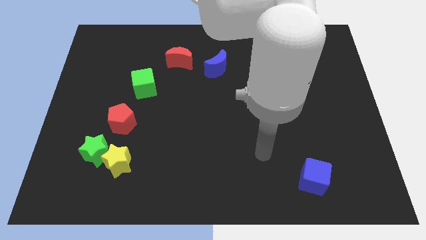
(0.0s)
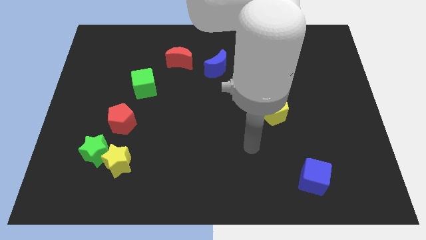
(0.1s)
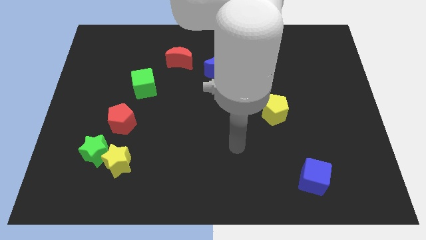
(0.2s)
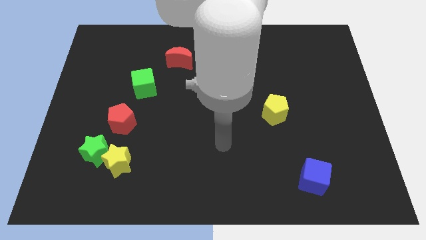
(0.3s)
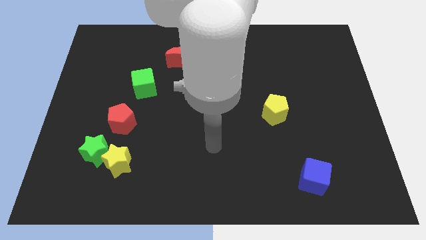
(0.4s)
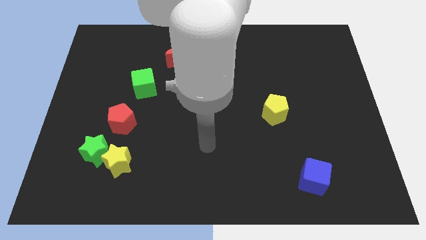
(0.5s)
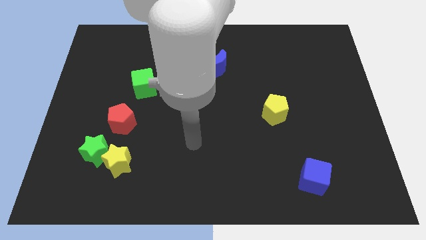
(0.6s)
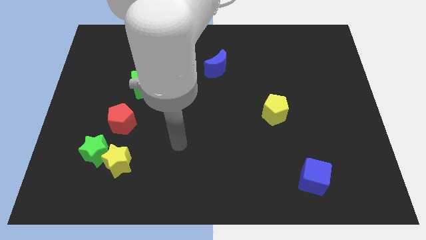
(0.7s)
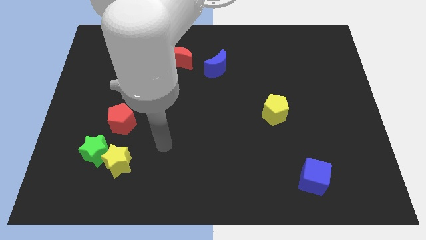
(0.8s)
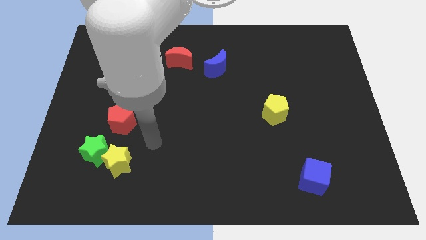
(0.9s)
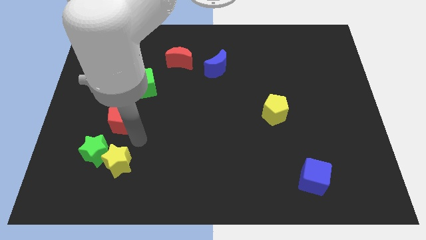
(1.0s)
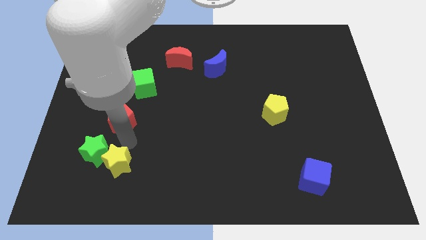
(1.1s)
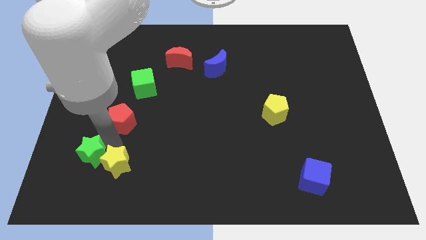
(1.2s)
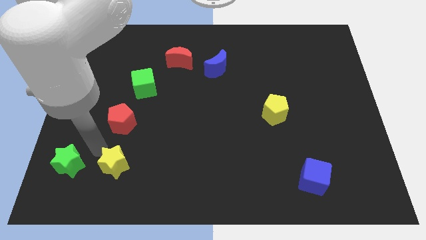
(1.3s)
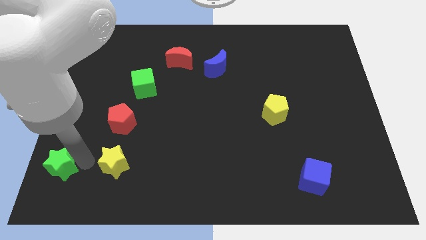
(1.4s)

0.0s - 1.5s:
pull the yellow star apart from the green star

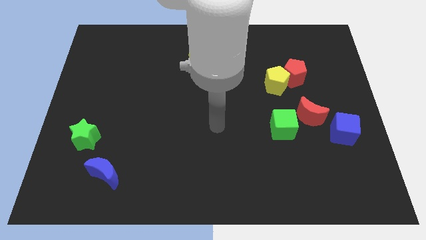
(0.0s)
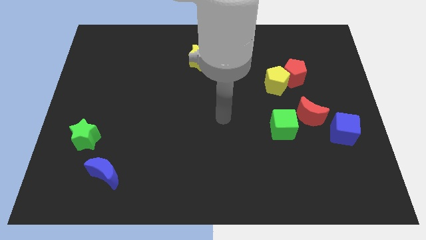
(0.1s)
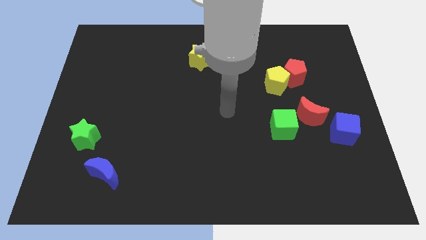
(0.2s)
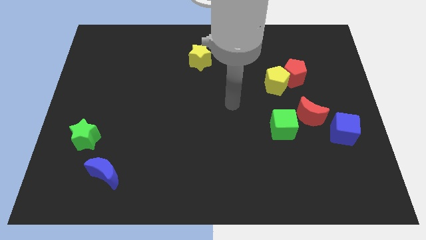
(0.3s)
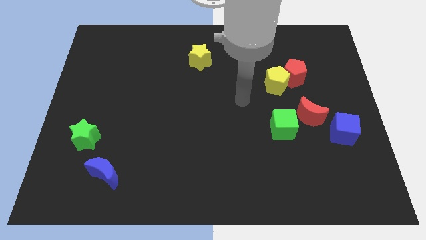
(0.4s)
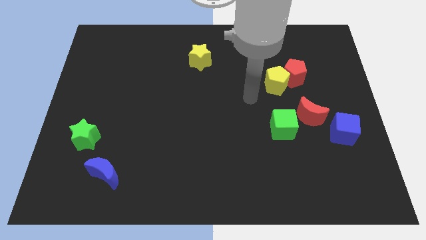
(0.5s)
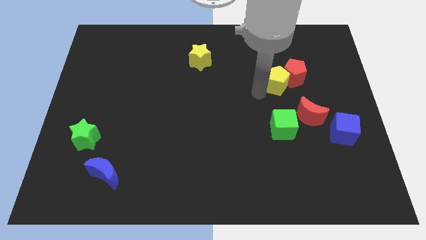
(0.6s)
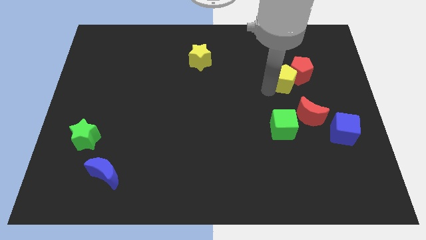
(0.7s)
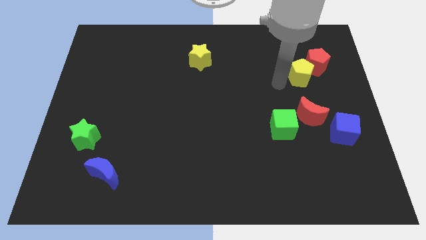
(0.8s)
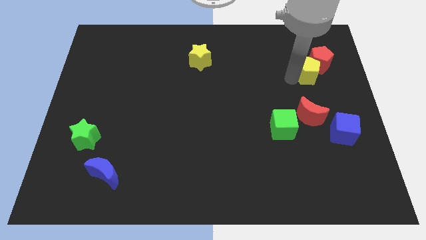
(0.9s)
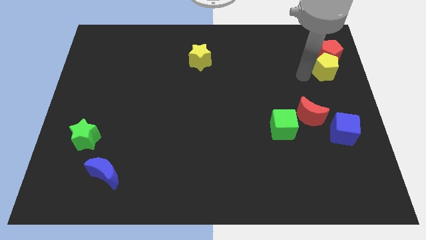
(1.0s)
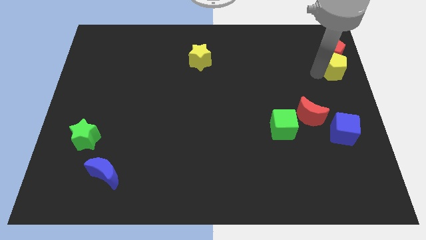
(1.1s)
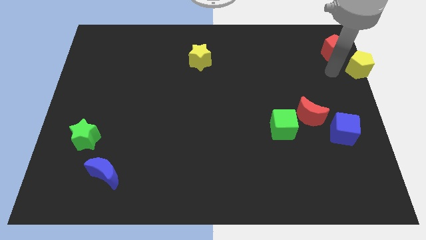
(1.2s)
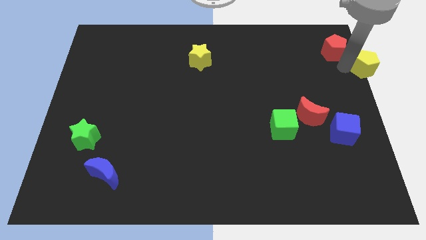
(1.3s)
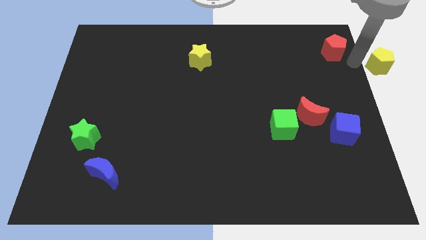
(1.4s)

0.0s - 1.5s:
pull the red pentagon apart from the yellow pentagon

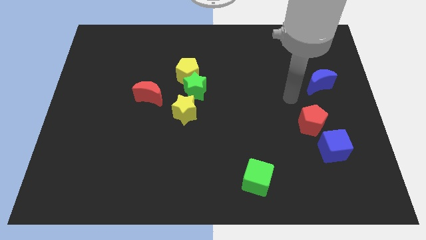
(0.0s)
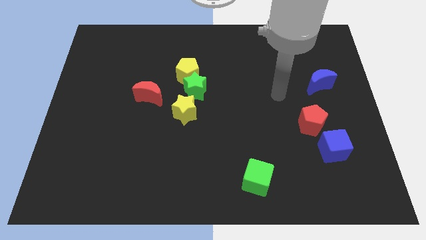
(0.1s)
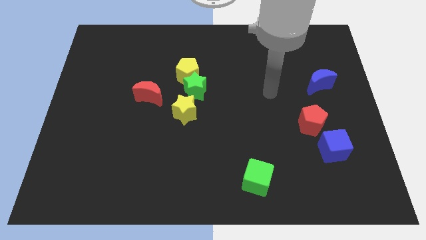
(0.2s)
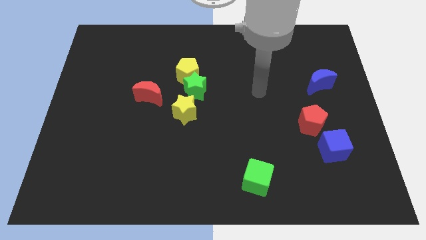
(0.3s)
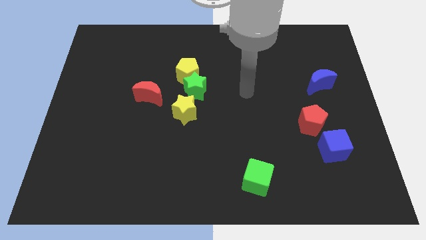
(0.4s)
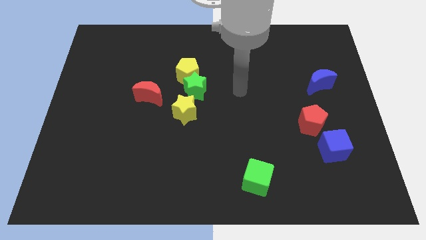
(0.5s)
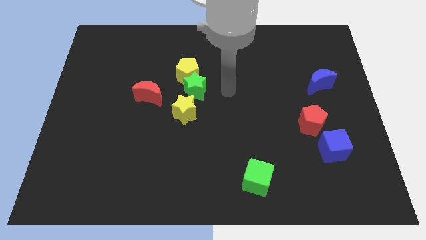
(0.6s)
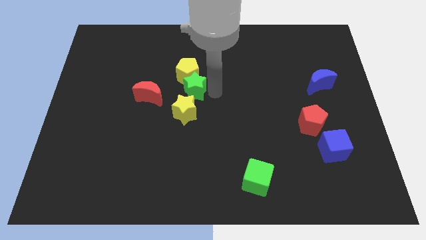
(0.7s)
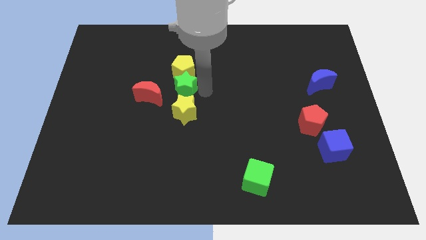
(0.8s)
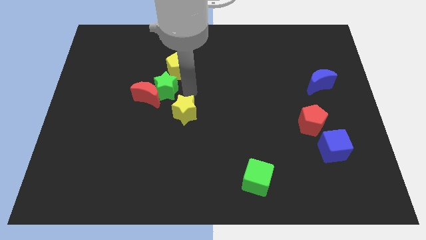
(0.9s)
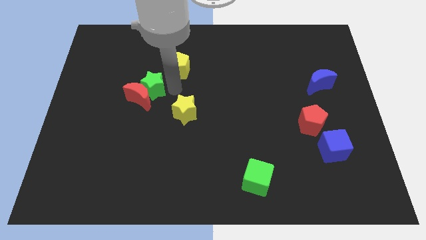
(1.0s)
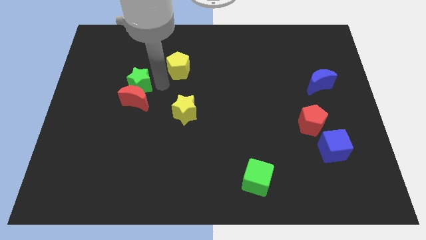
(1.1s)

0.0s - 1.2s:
move the yellow pentagon away from the green star

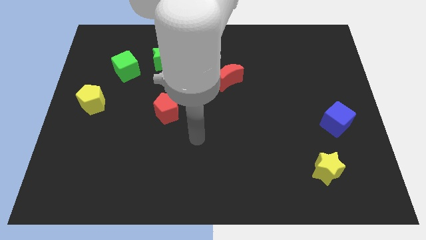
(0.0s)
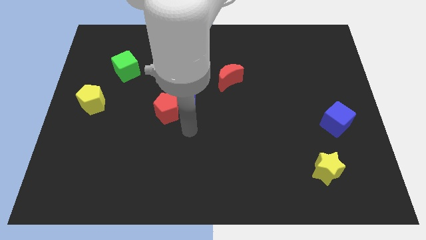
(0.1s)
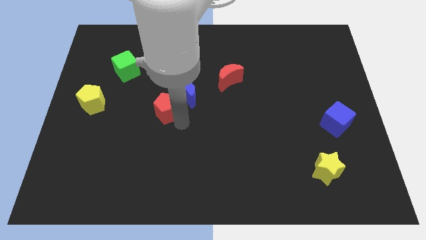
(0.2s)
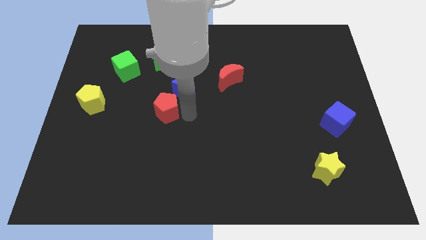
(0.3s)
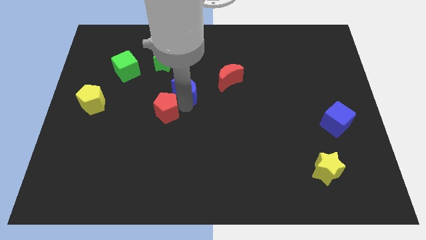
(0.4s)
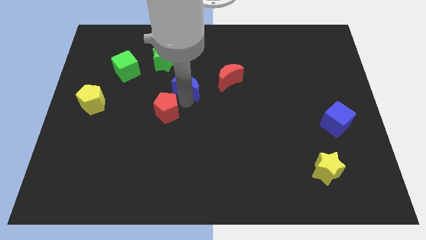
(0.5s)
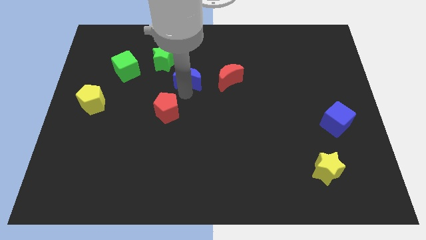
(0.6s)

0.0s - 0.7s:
pull the red pentagon apart from the blue moon

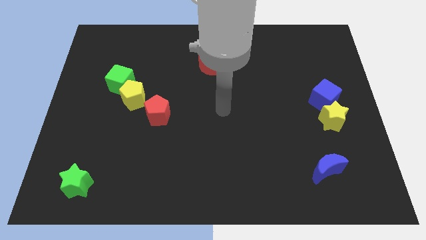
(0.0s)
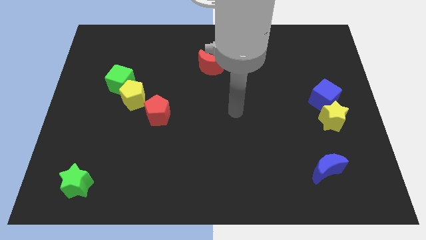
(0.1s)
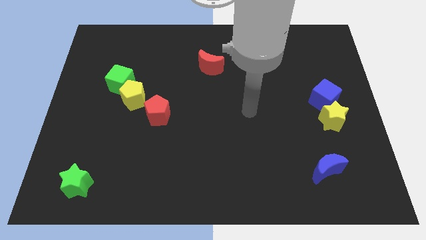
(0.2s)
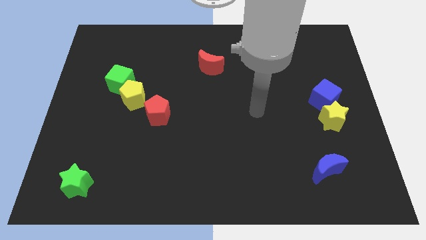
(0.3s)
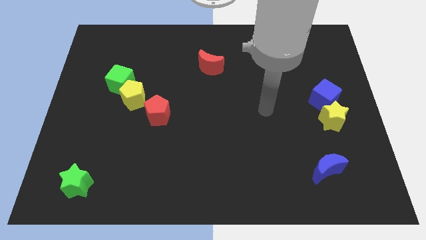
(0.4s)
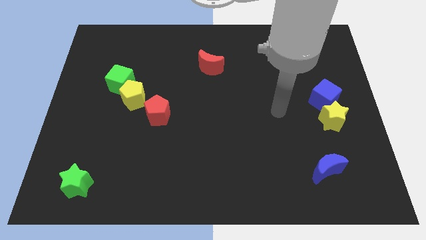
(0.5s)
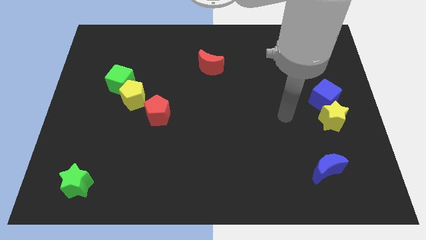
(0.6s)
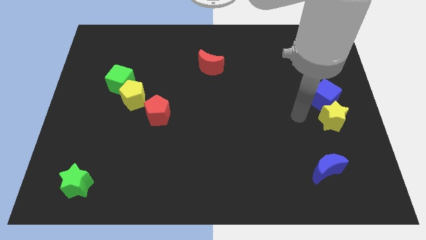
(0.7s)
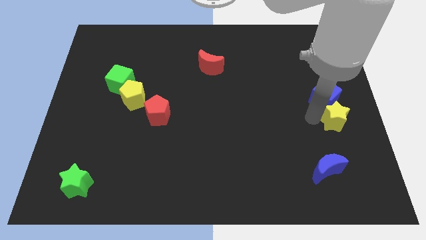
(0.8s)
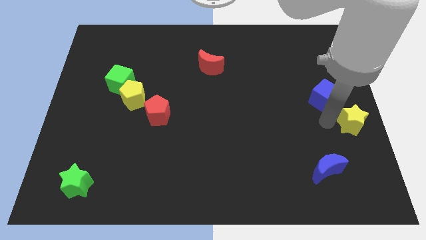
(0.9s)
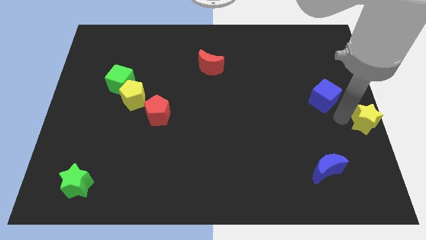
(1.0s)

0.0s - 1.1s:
separate the blue cube from the yellow star

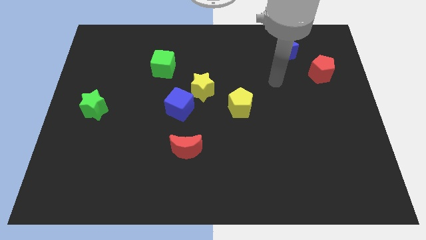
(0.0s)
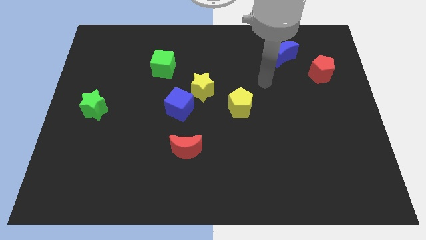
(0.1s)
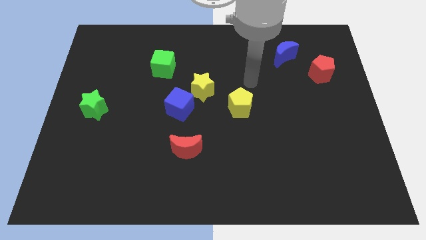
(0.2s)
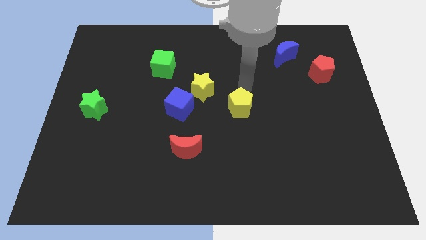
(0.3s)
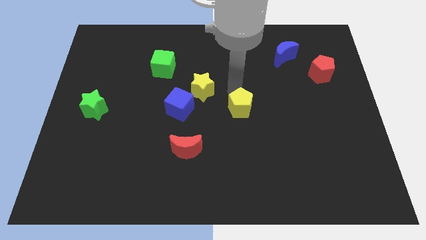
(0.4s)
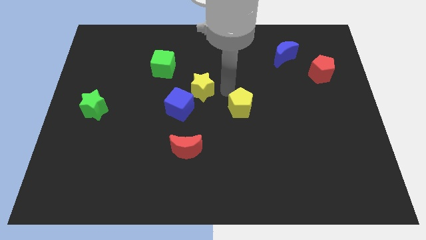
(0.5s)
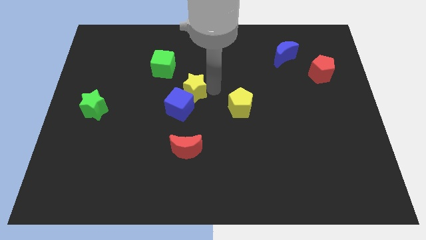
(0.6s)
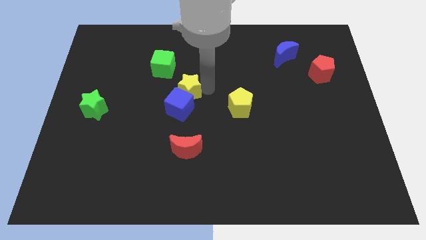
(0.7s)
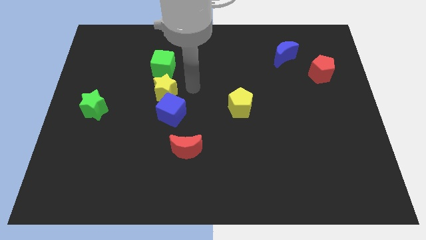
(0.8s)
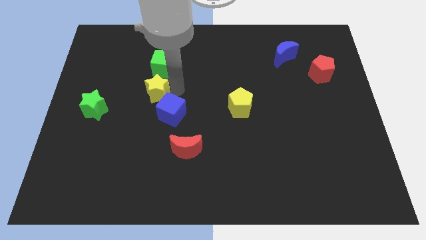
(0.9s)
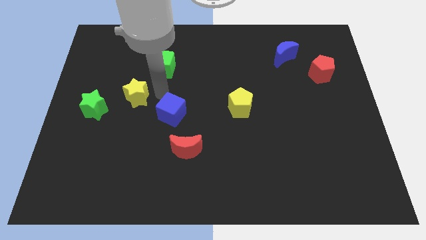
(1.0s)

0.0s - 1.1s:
move the blue cube away from the yellow star

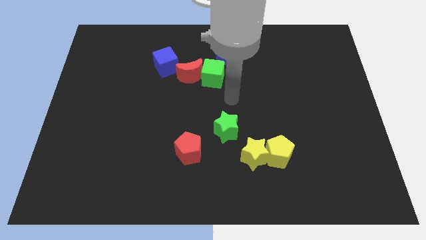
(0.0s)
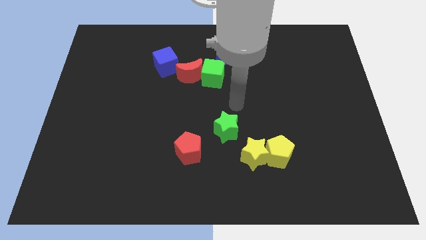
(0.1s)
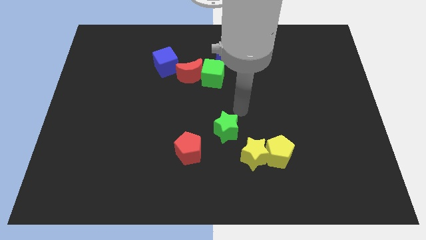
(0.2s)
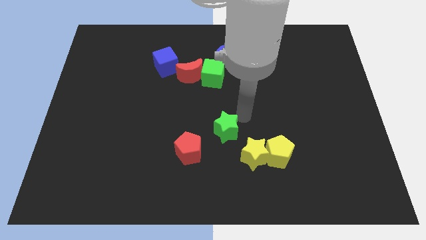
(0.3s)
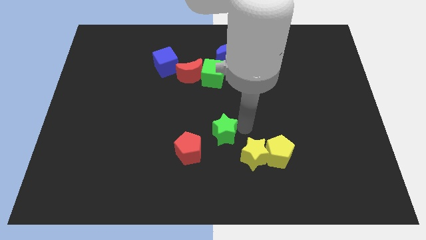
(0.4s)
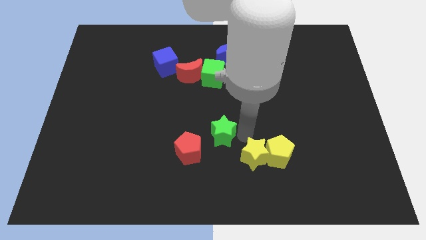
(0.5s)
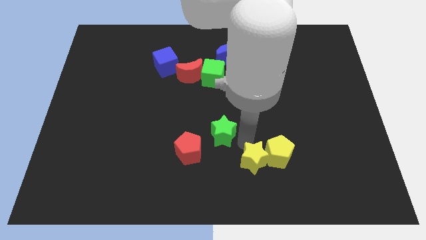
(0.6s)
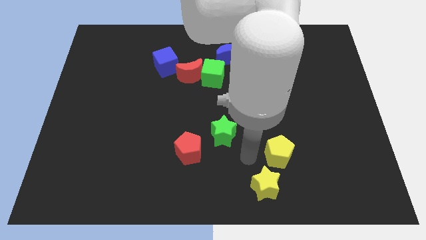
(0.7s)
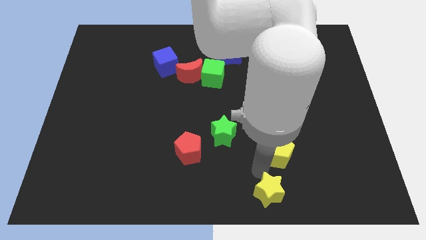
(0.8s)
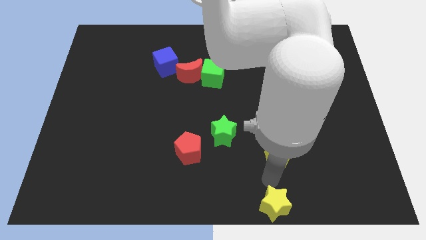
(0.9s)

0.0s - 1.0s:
move the yellow pentagon away from the yellow star

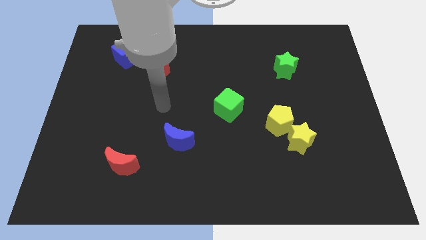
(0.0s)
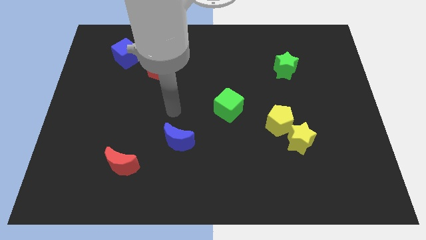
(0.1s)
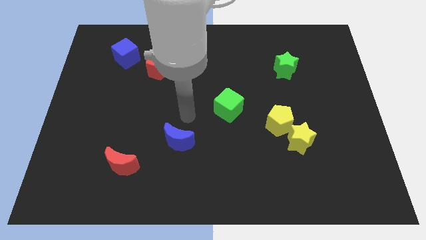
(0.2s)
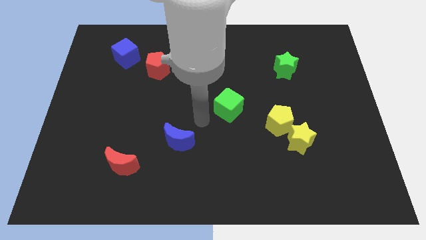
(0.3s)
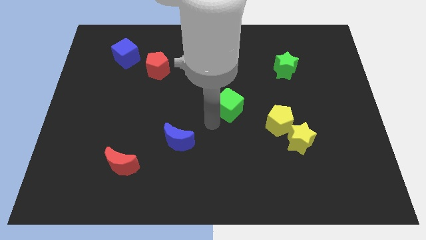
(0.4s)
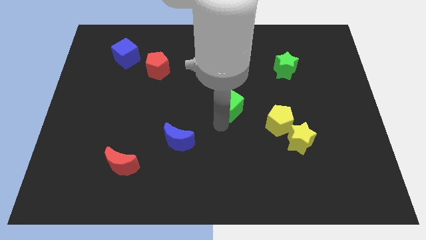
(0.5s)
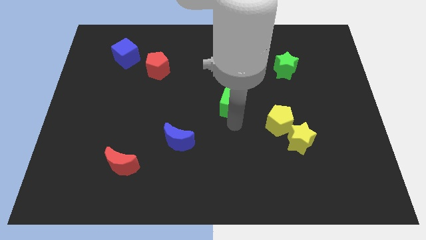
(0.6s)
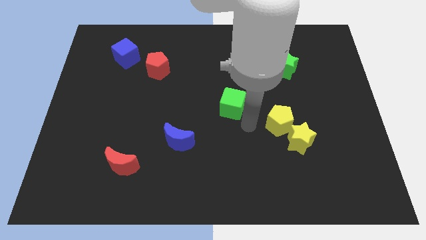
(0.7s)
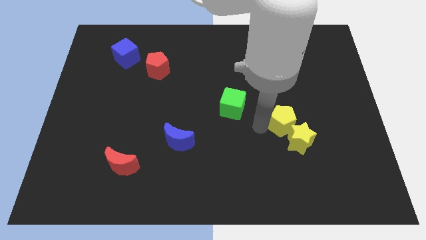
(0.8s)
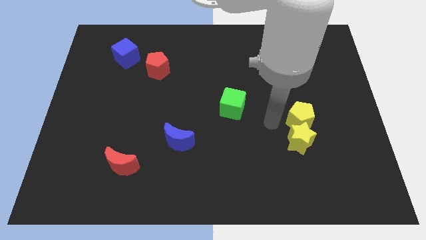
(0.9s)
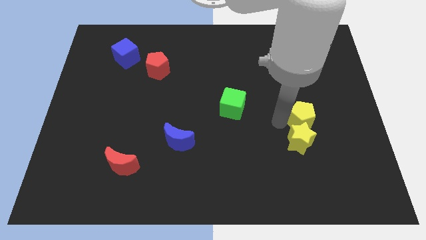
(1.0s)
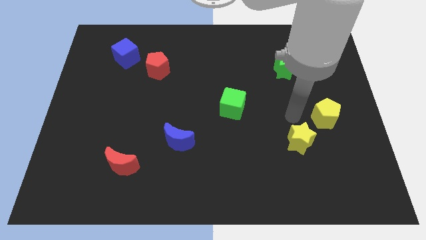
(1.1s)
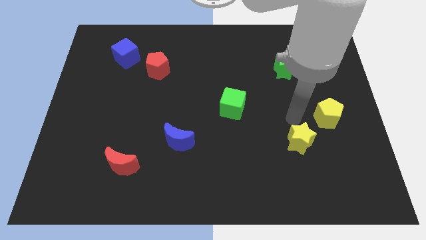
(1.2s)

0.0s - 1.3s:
pull the yellow star apart from the yellow pentagon
